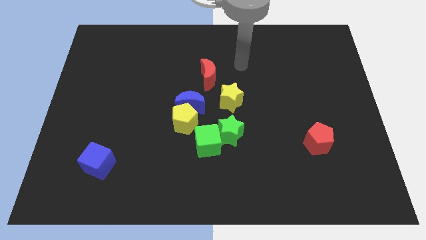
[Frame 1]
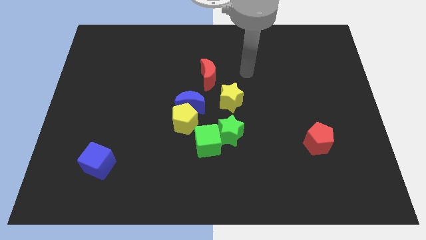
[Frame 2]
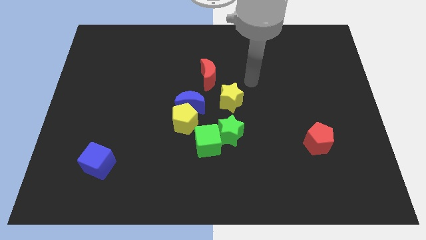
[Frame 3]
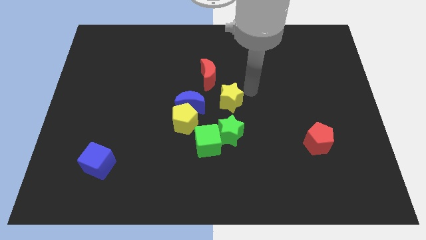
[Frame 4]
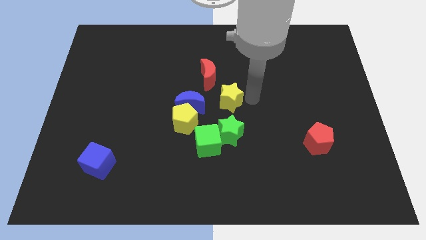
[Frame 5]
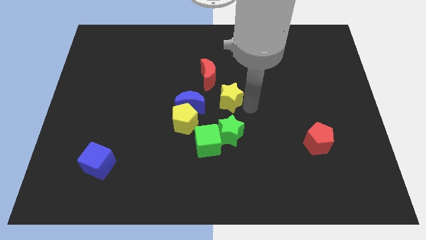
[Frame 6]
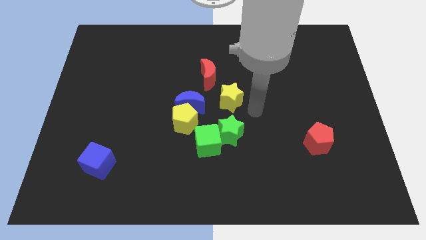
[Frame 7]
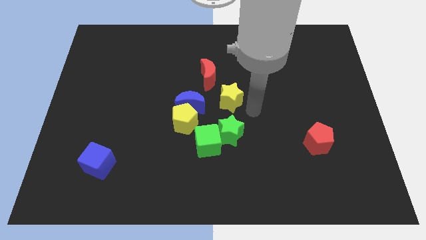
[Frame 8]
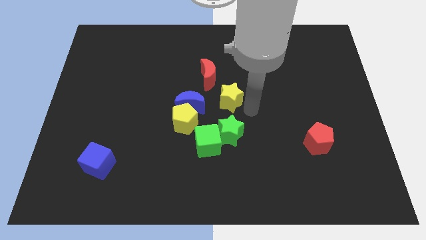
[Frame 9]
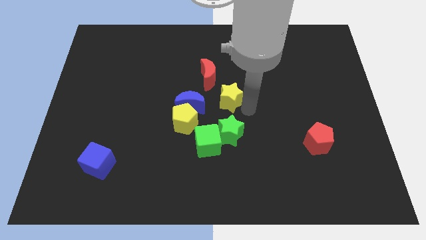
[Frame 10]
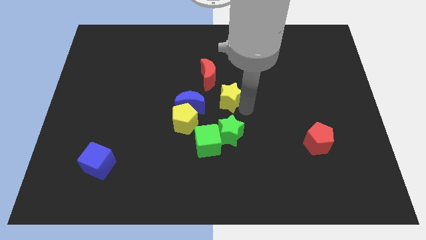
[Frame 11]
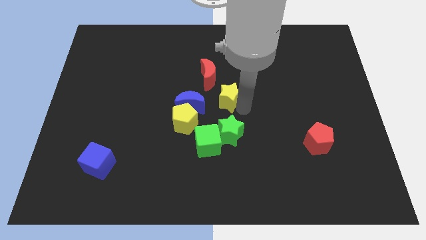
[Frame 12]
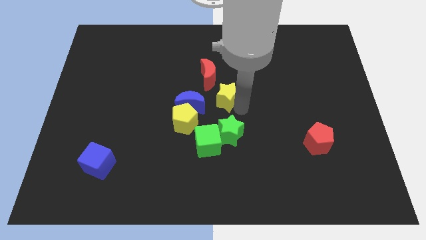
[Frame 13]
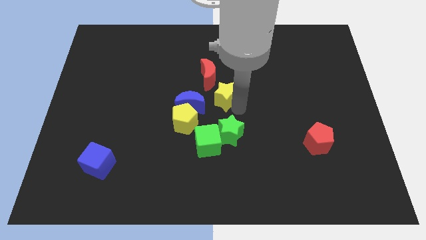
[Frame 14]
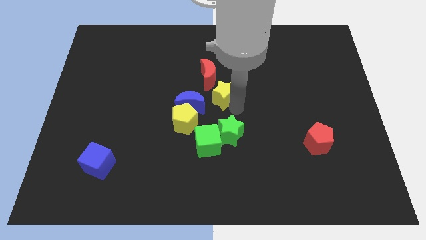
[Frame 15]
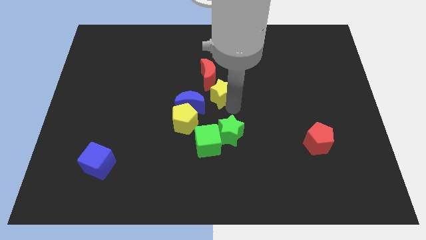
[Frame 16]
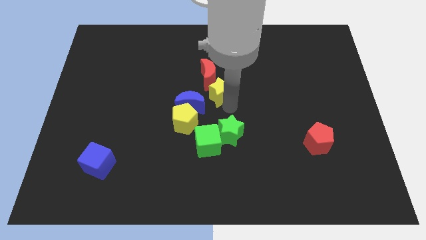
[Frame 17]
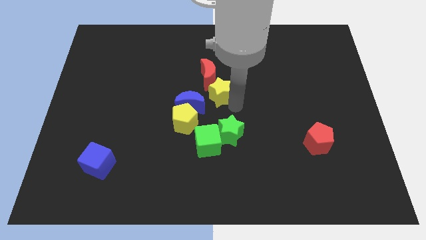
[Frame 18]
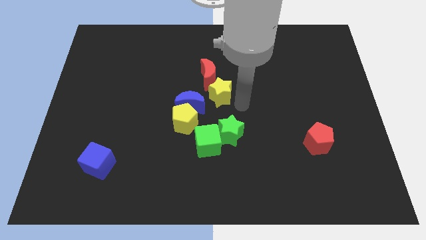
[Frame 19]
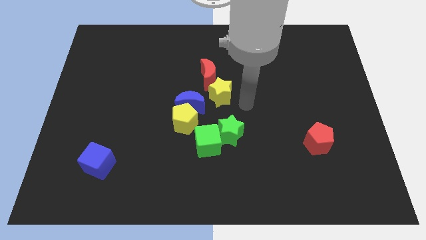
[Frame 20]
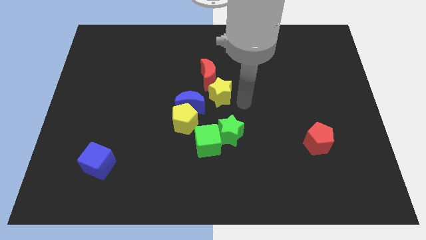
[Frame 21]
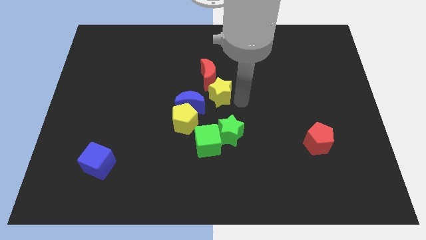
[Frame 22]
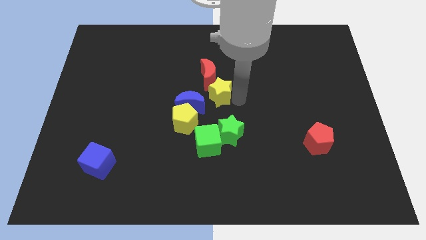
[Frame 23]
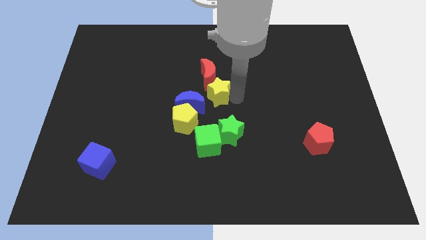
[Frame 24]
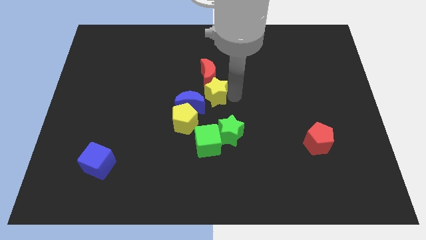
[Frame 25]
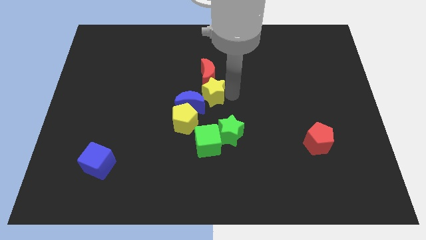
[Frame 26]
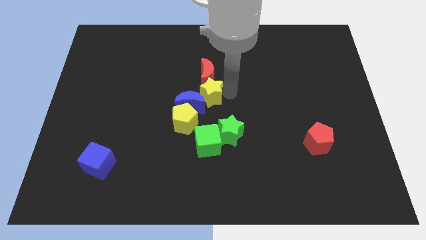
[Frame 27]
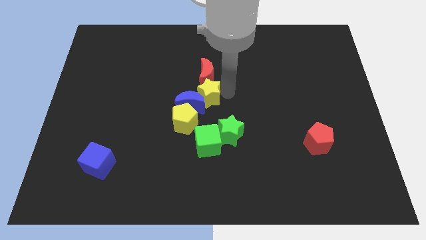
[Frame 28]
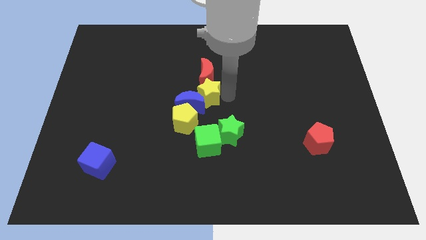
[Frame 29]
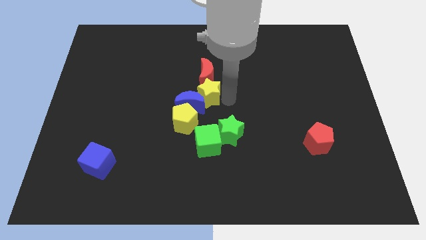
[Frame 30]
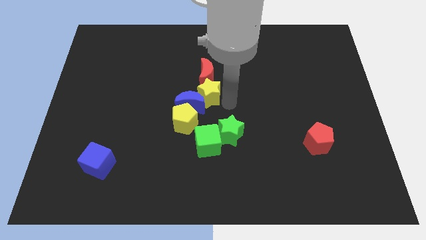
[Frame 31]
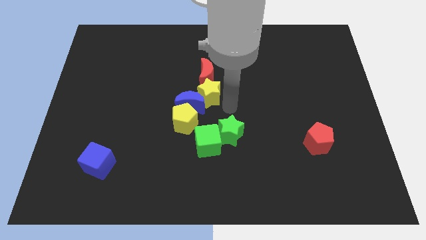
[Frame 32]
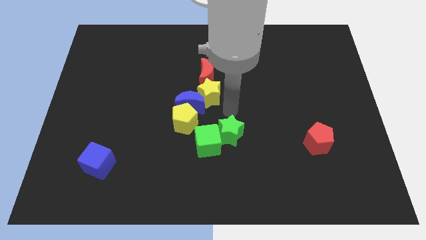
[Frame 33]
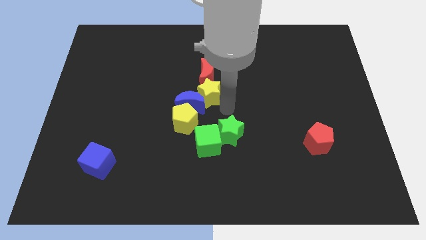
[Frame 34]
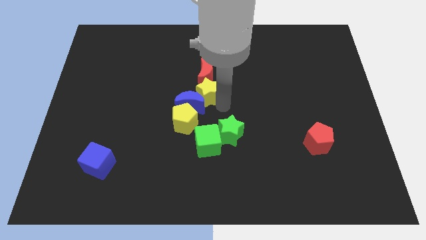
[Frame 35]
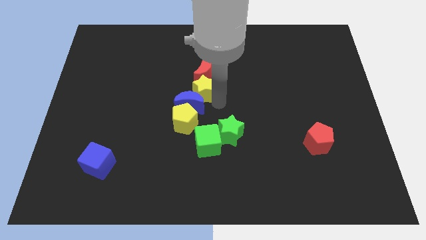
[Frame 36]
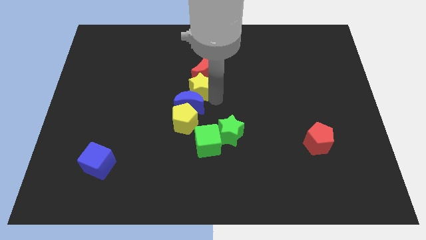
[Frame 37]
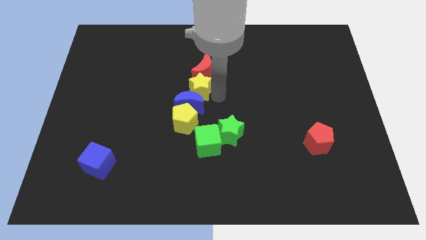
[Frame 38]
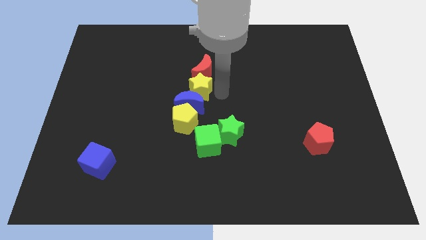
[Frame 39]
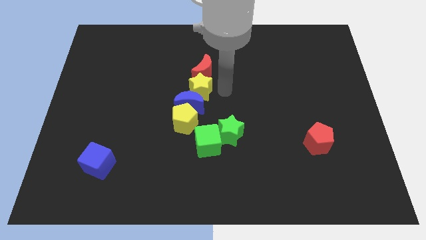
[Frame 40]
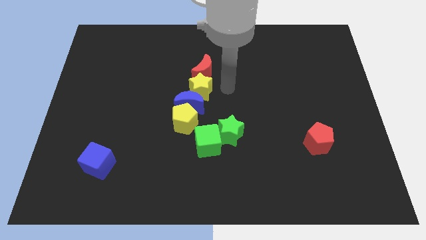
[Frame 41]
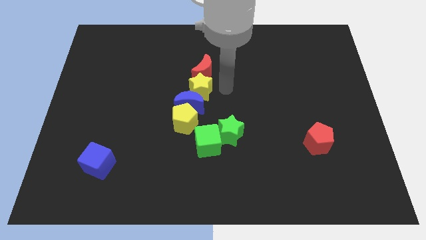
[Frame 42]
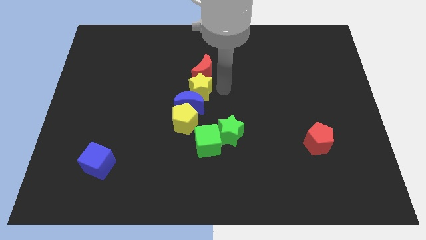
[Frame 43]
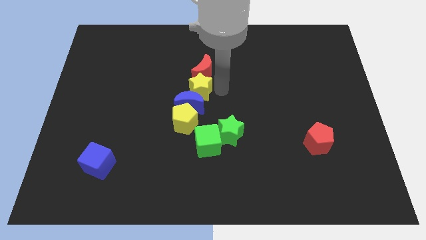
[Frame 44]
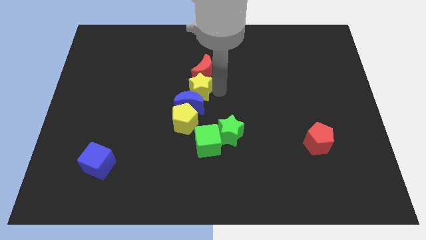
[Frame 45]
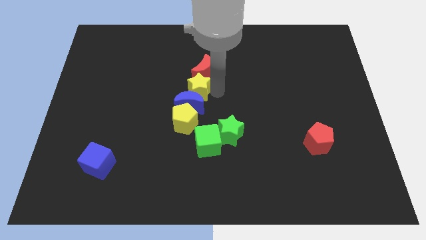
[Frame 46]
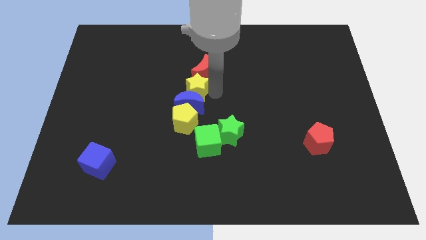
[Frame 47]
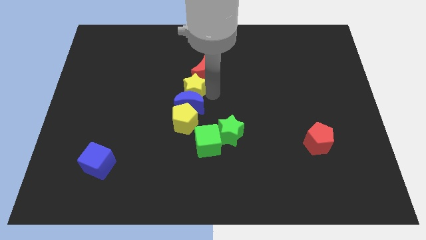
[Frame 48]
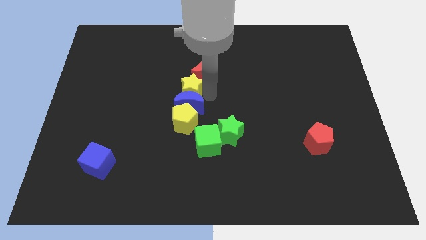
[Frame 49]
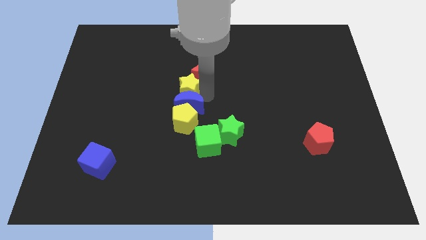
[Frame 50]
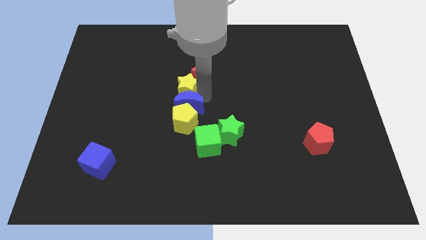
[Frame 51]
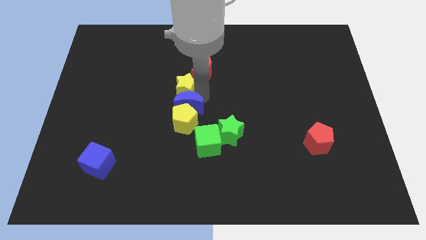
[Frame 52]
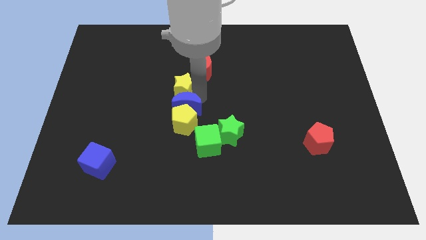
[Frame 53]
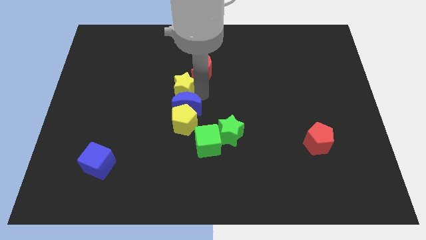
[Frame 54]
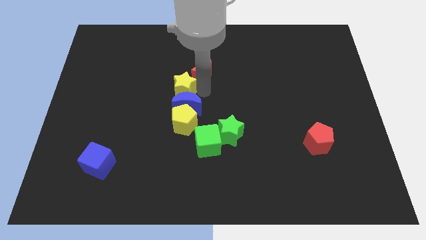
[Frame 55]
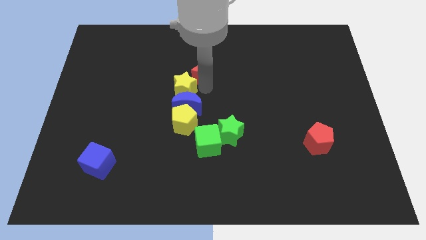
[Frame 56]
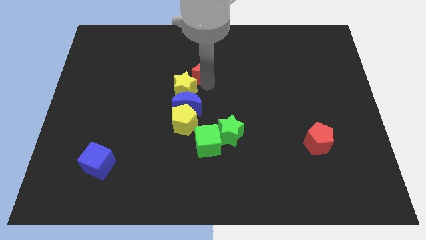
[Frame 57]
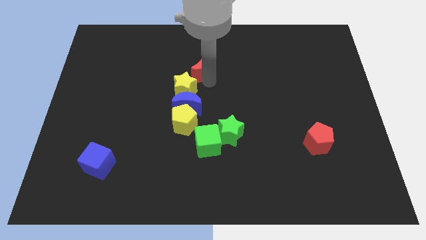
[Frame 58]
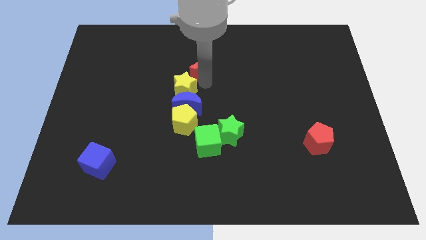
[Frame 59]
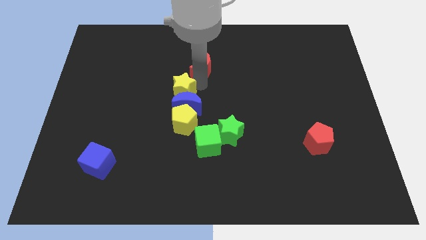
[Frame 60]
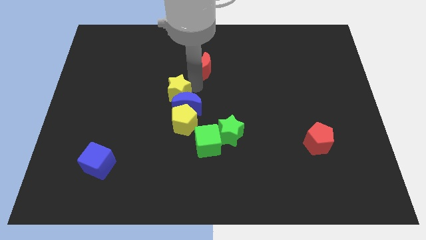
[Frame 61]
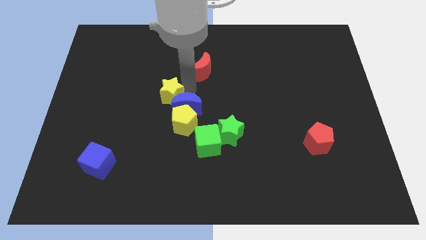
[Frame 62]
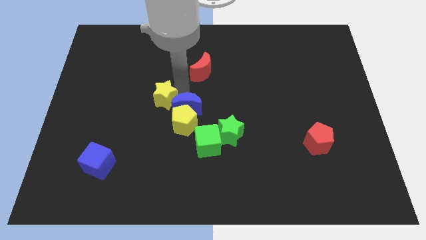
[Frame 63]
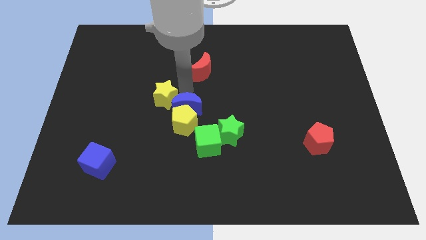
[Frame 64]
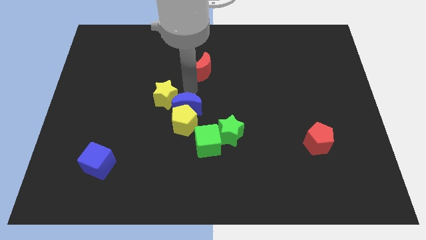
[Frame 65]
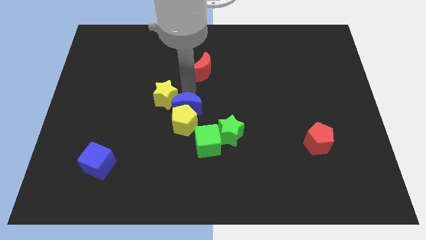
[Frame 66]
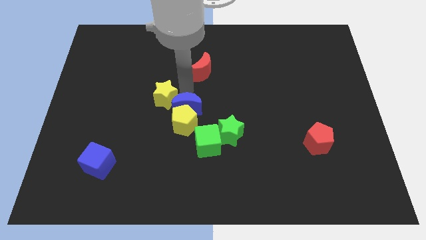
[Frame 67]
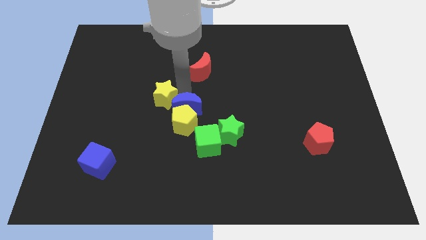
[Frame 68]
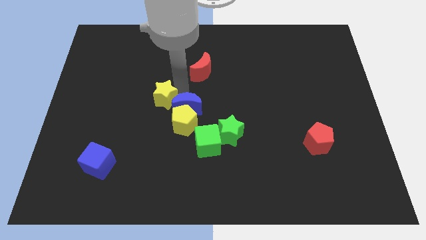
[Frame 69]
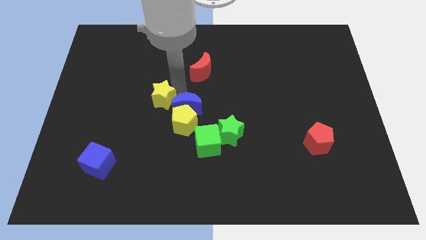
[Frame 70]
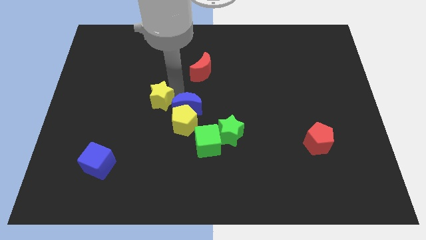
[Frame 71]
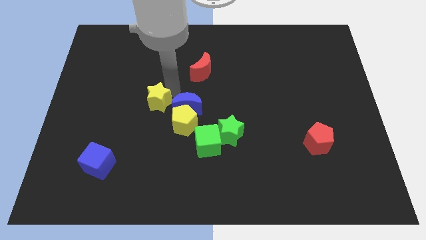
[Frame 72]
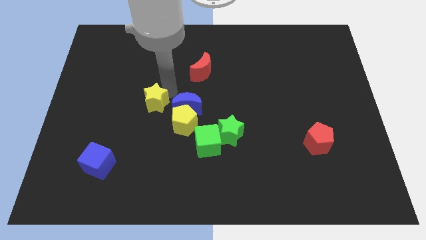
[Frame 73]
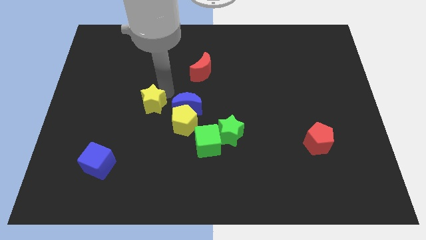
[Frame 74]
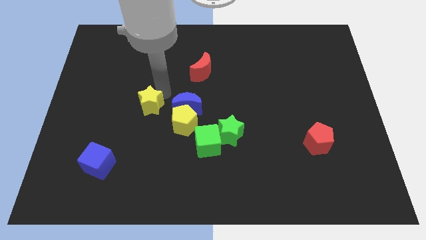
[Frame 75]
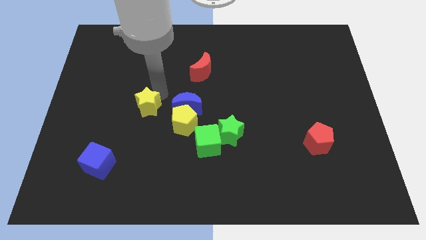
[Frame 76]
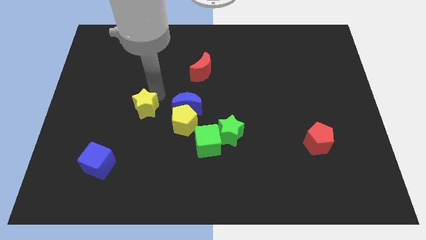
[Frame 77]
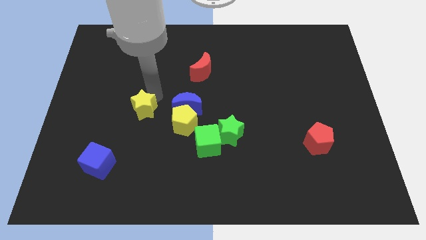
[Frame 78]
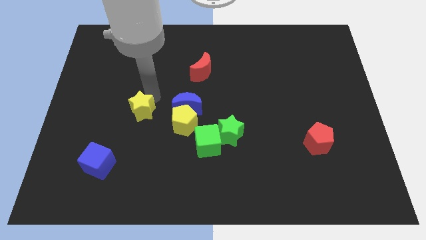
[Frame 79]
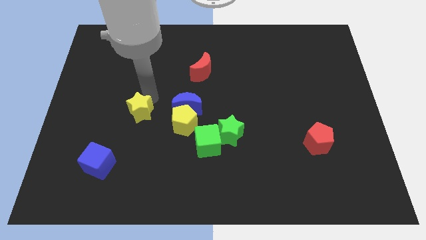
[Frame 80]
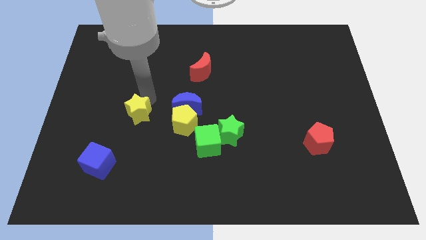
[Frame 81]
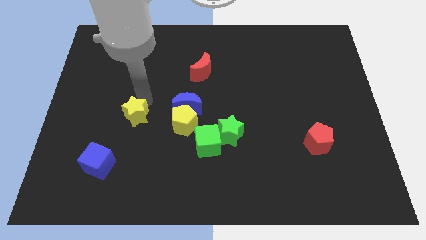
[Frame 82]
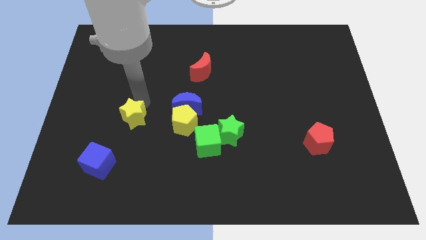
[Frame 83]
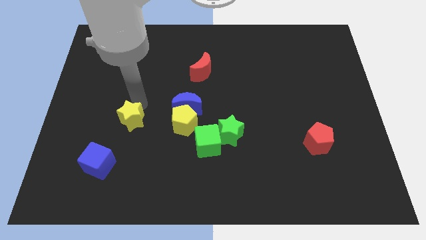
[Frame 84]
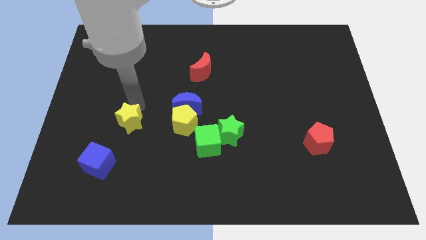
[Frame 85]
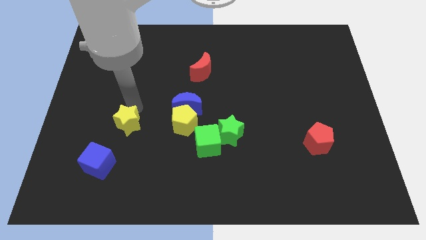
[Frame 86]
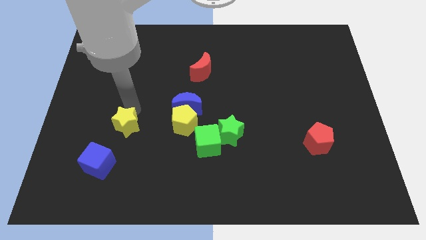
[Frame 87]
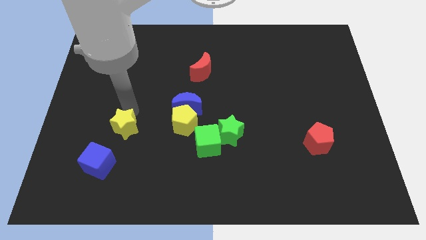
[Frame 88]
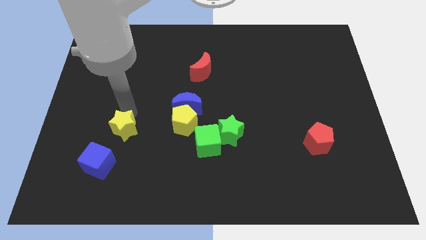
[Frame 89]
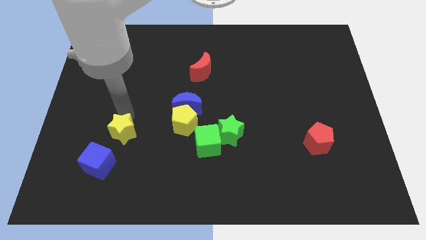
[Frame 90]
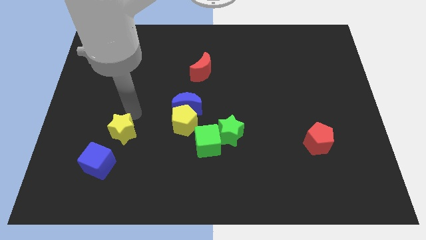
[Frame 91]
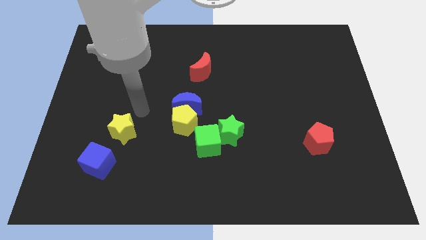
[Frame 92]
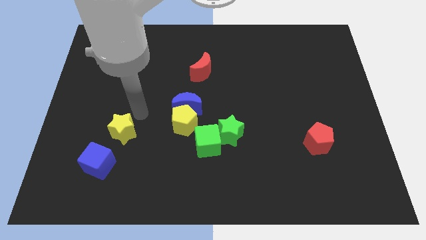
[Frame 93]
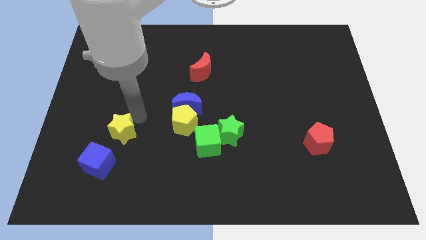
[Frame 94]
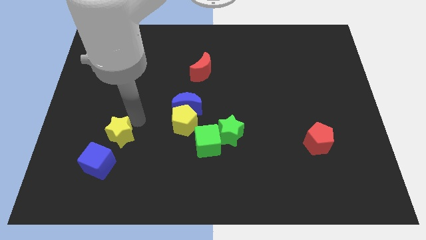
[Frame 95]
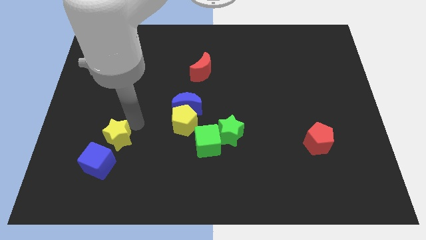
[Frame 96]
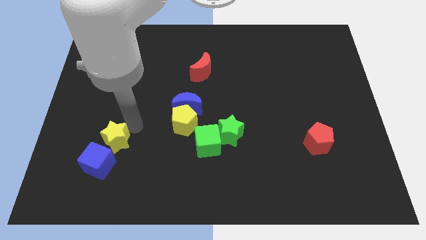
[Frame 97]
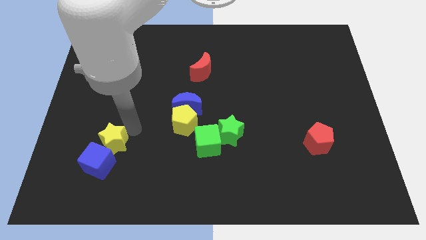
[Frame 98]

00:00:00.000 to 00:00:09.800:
slide the yellow star close to the blue cube
